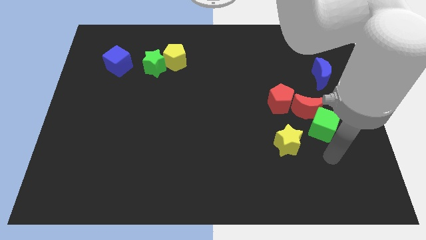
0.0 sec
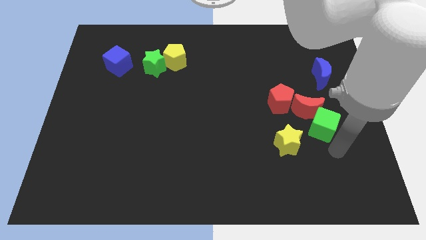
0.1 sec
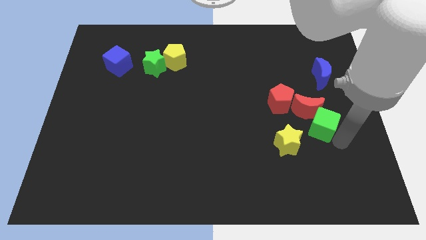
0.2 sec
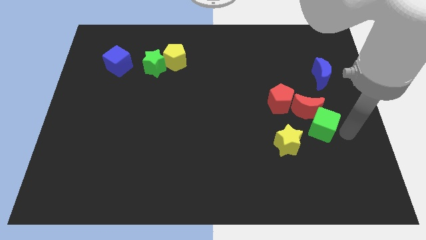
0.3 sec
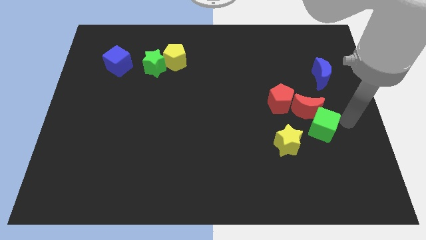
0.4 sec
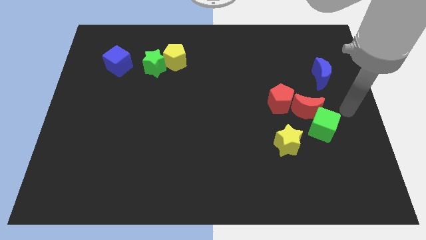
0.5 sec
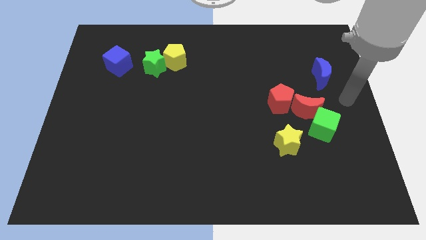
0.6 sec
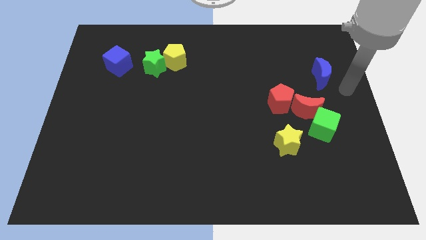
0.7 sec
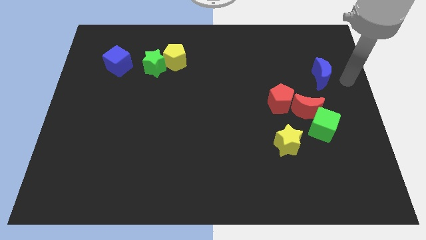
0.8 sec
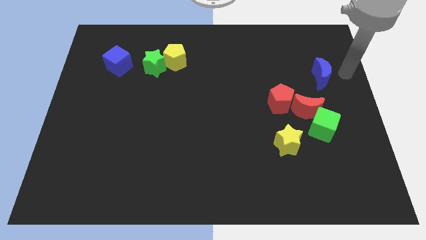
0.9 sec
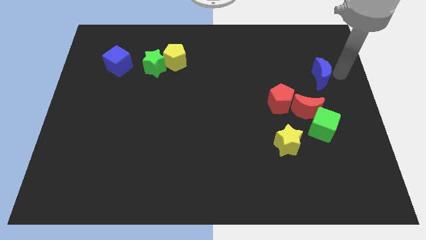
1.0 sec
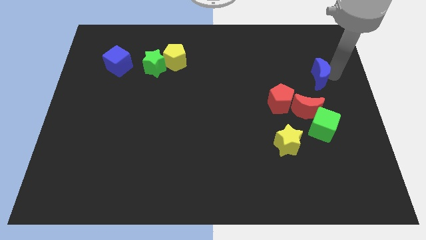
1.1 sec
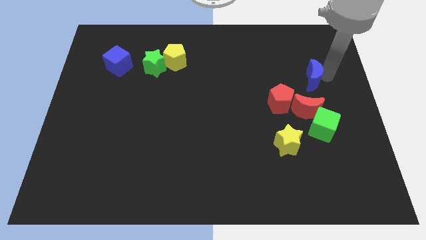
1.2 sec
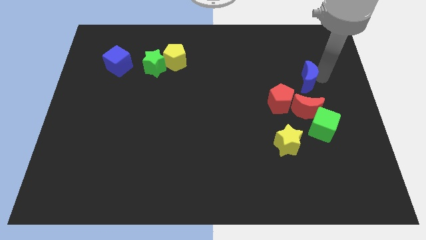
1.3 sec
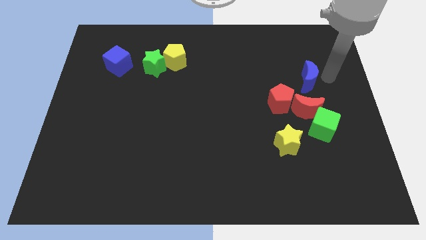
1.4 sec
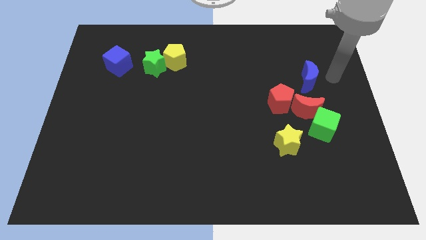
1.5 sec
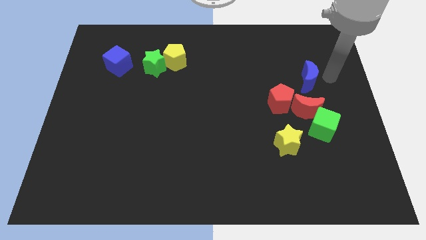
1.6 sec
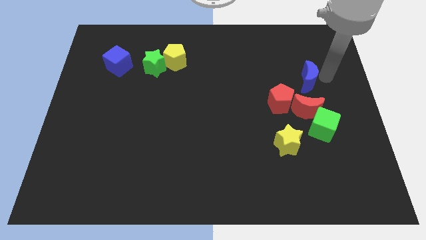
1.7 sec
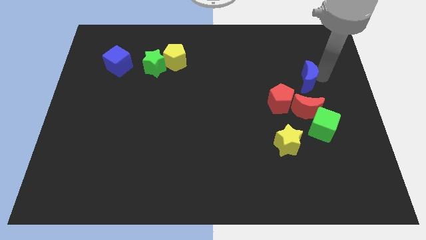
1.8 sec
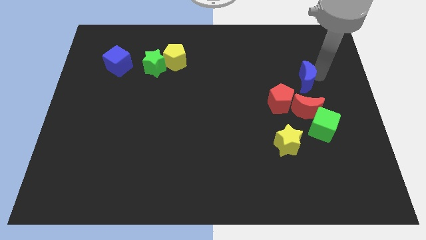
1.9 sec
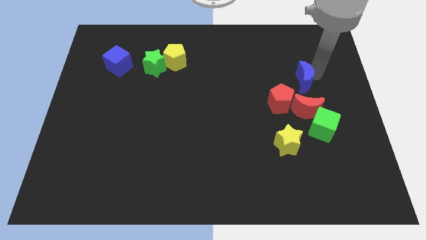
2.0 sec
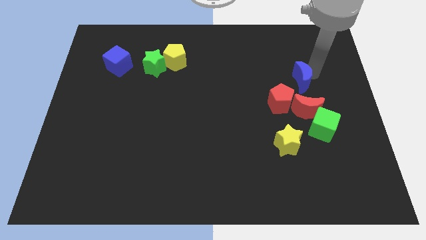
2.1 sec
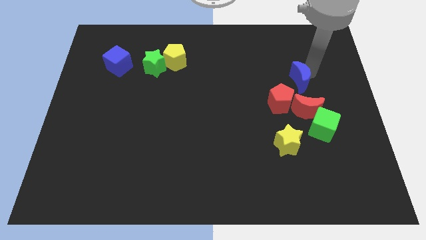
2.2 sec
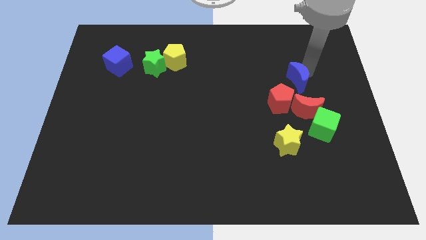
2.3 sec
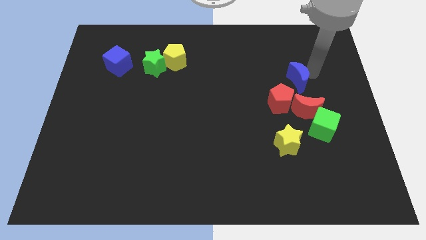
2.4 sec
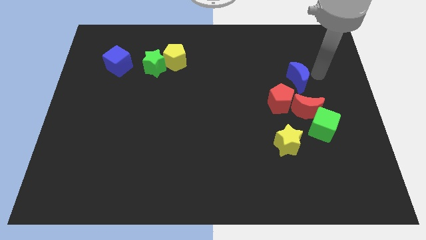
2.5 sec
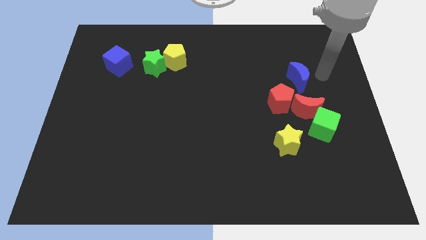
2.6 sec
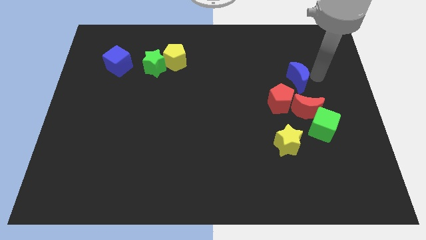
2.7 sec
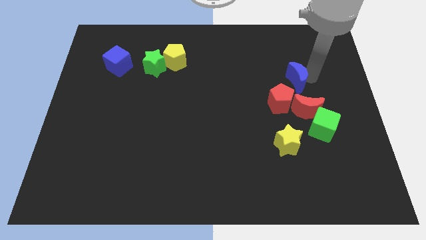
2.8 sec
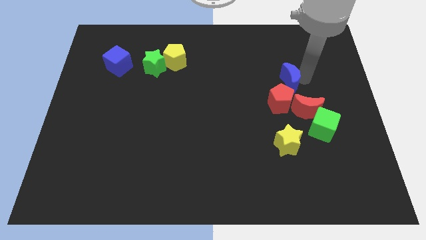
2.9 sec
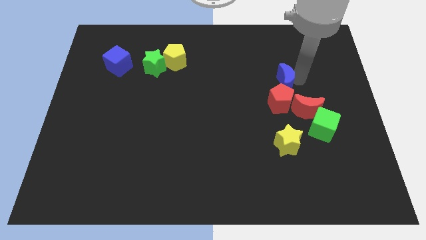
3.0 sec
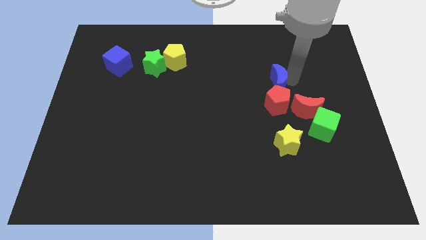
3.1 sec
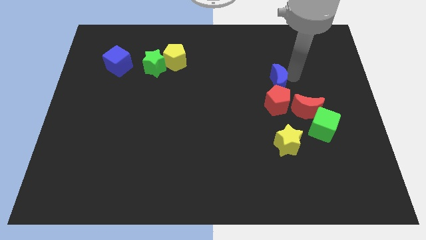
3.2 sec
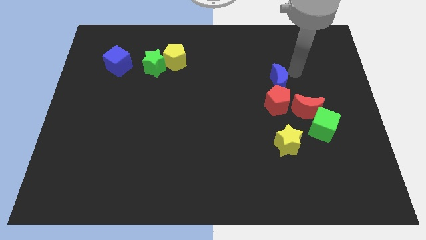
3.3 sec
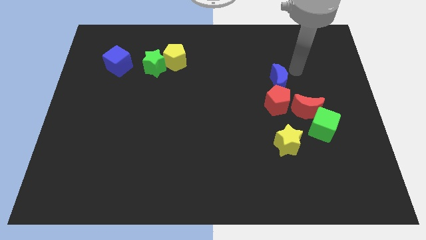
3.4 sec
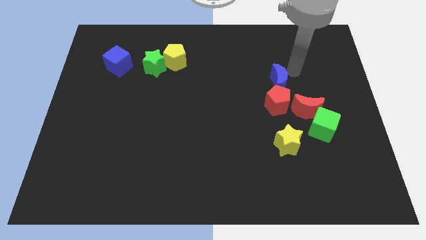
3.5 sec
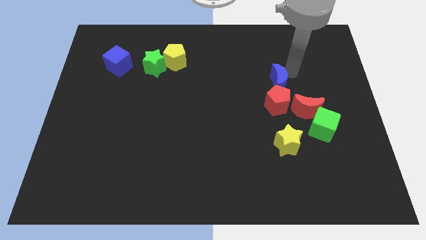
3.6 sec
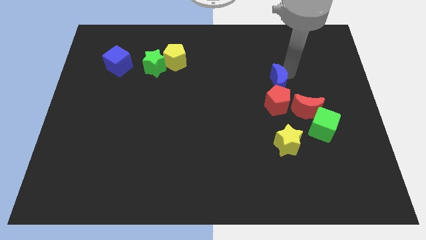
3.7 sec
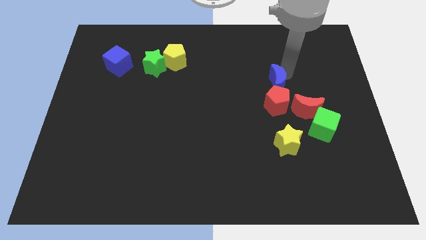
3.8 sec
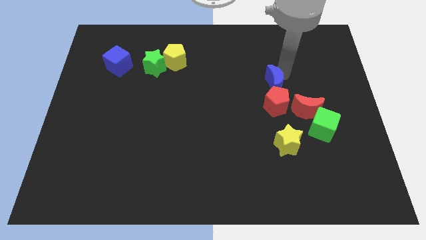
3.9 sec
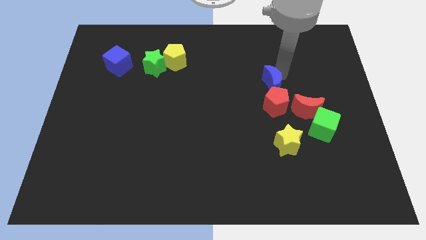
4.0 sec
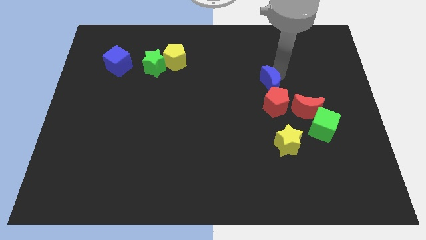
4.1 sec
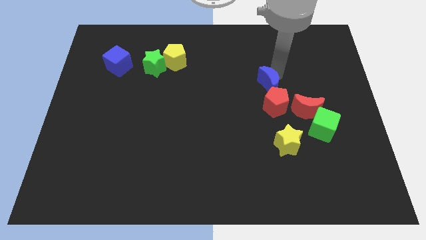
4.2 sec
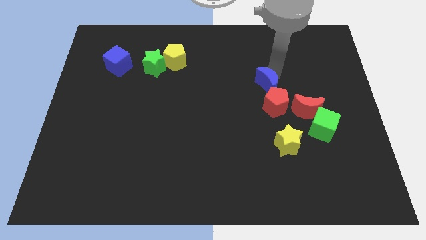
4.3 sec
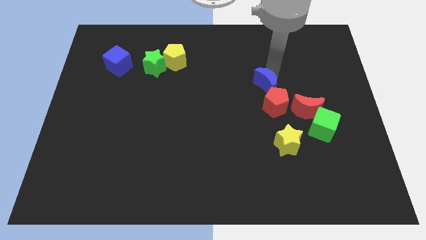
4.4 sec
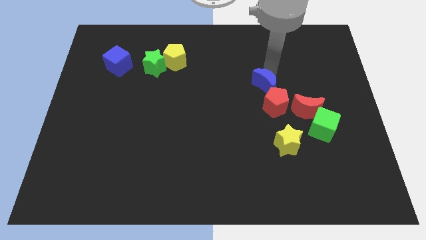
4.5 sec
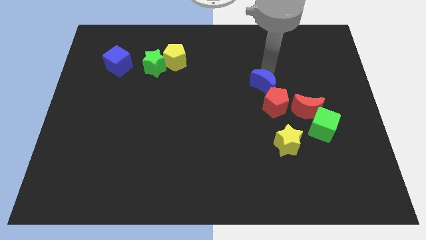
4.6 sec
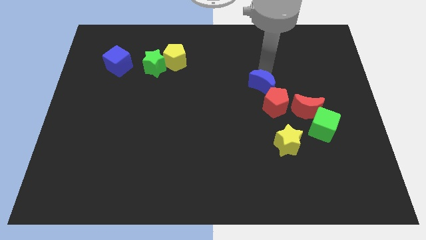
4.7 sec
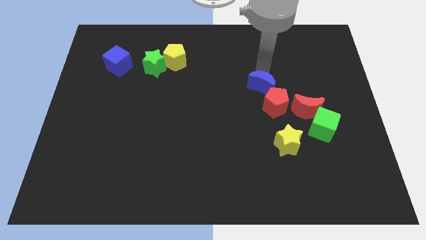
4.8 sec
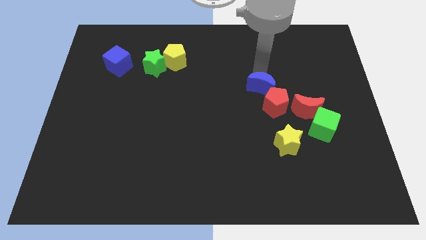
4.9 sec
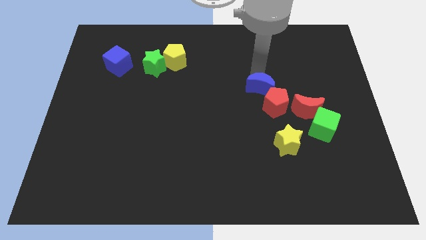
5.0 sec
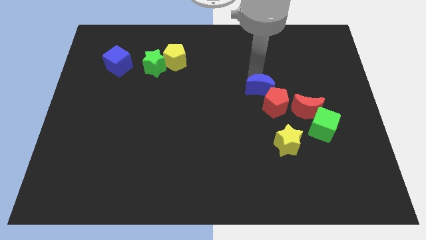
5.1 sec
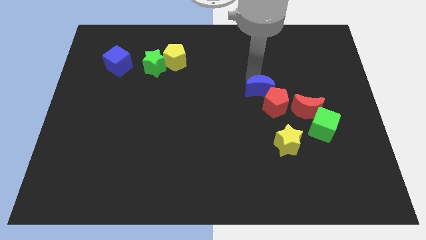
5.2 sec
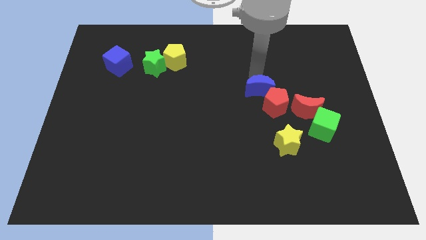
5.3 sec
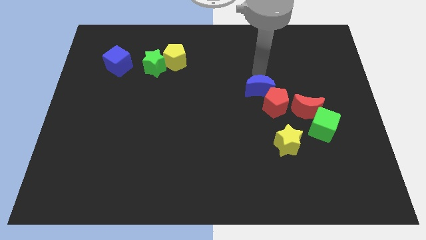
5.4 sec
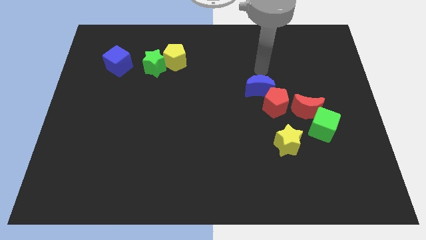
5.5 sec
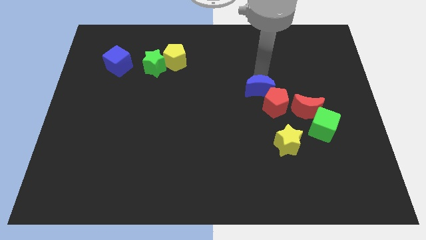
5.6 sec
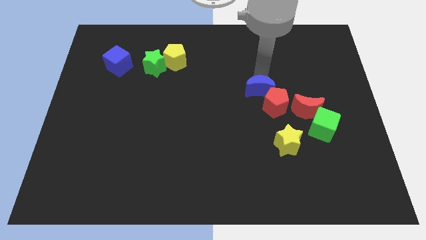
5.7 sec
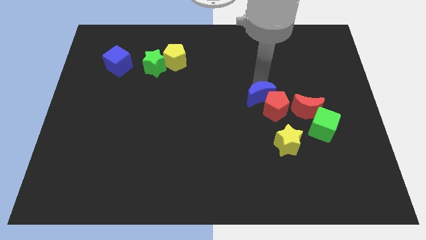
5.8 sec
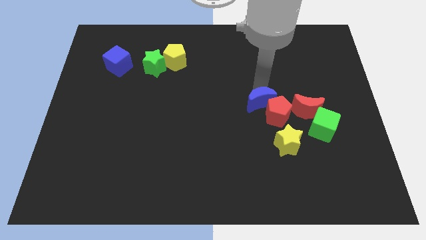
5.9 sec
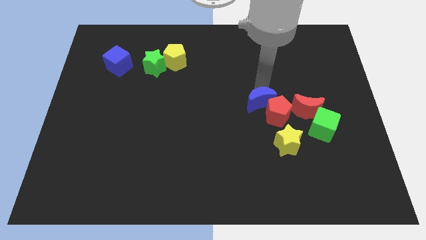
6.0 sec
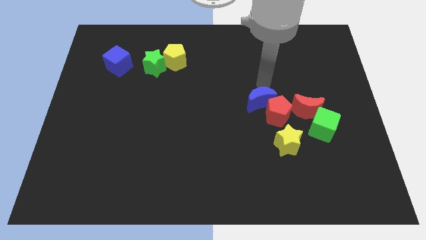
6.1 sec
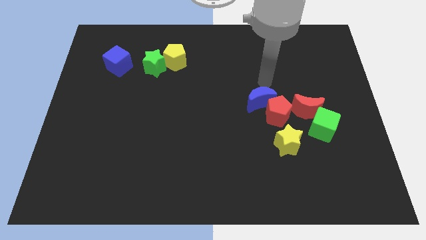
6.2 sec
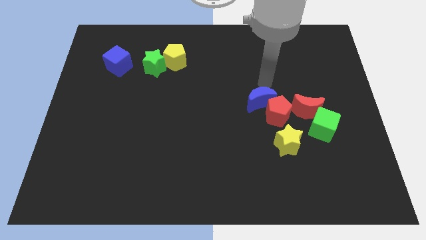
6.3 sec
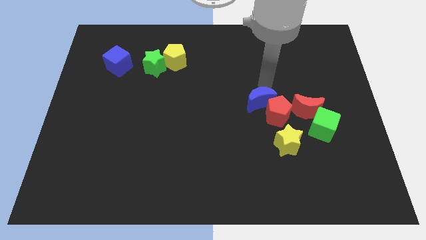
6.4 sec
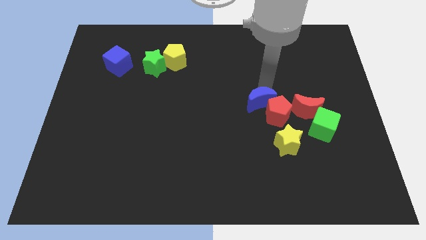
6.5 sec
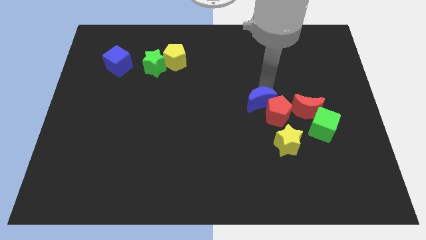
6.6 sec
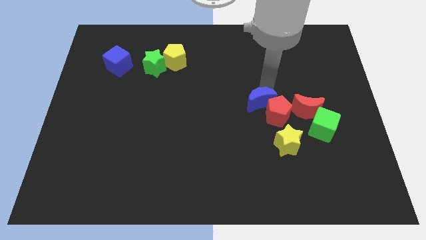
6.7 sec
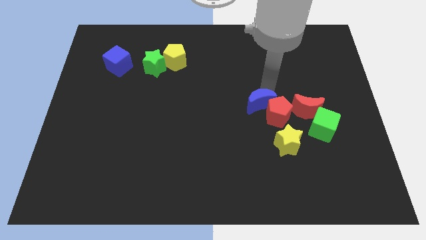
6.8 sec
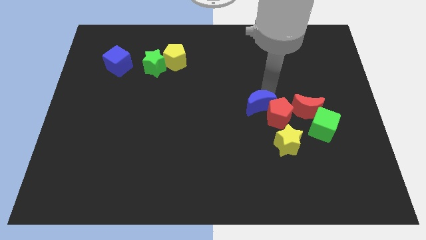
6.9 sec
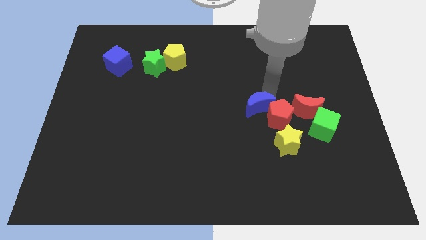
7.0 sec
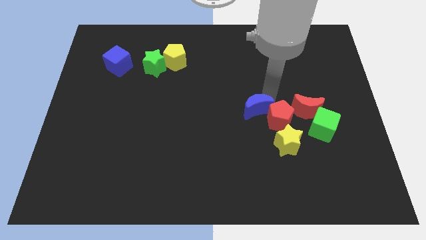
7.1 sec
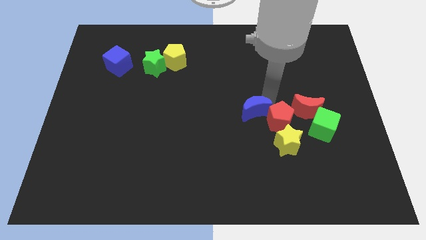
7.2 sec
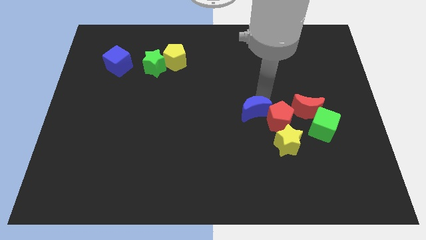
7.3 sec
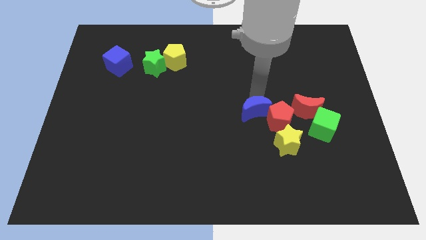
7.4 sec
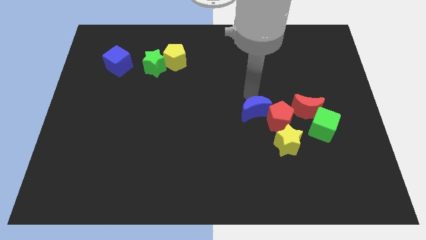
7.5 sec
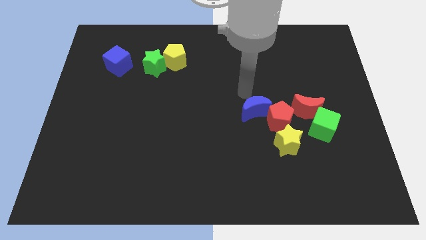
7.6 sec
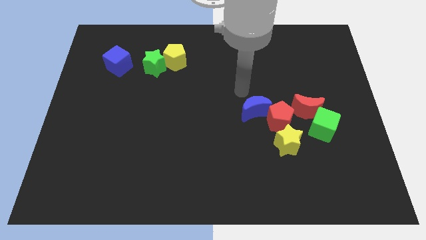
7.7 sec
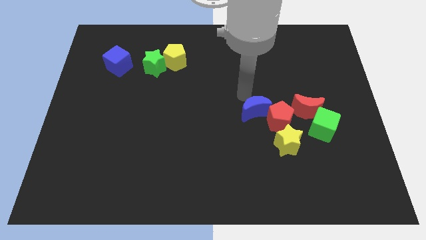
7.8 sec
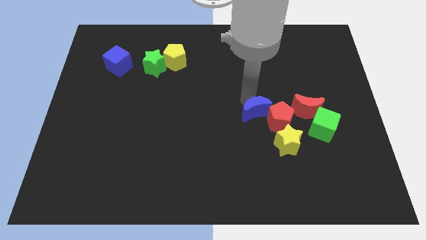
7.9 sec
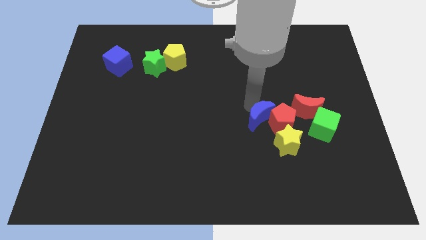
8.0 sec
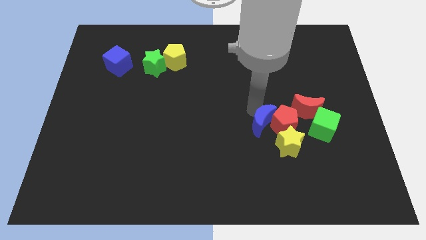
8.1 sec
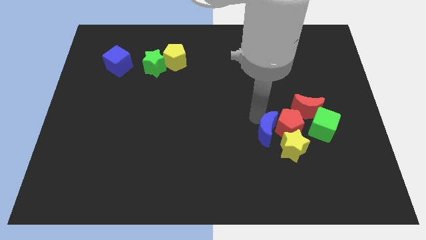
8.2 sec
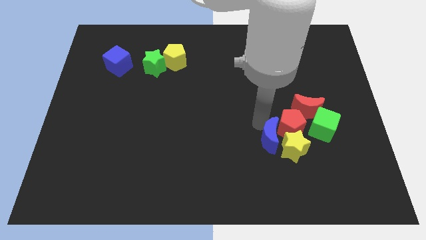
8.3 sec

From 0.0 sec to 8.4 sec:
put the blue moon next to the yellow star
